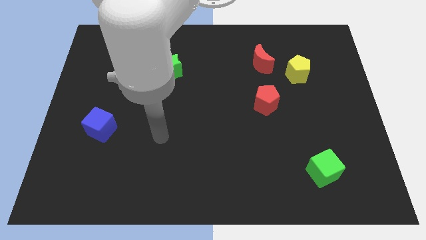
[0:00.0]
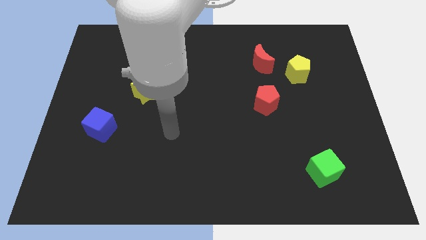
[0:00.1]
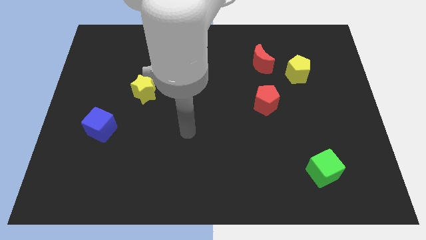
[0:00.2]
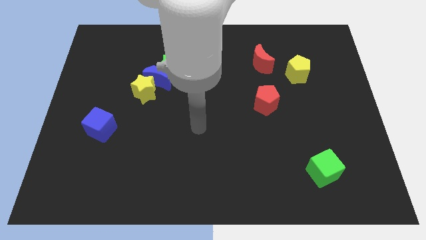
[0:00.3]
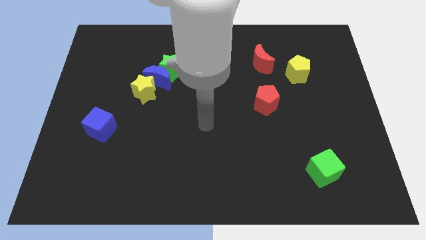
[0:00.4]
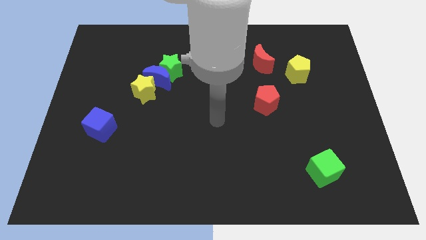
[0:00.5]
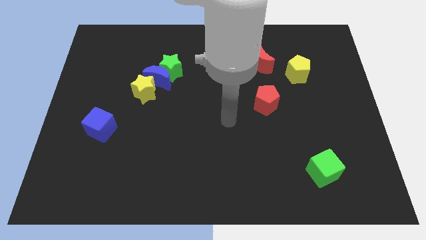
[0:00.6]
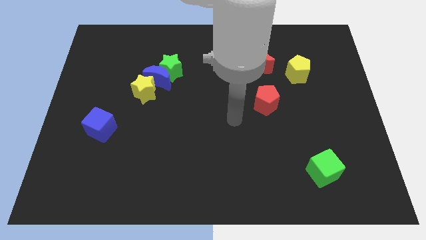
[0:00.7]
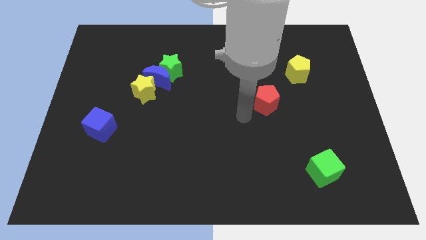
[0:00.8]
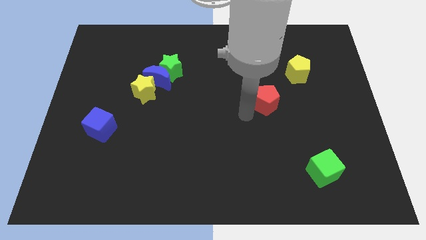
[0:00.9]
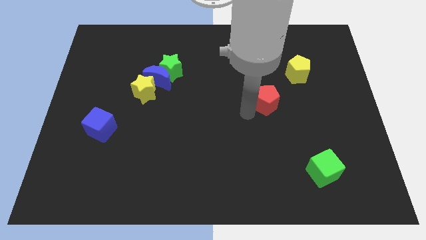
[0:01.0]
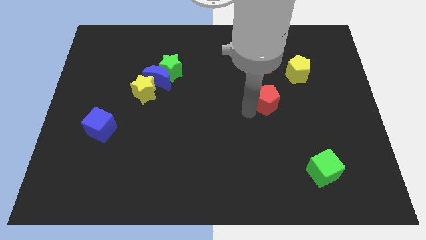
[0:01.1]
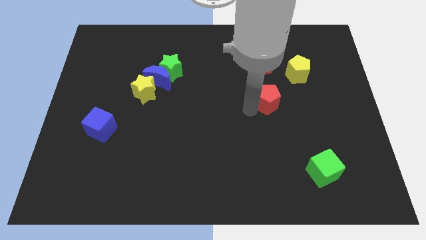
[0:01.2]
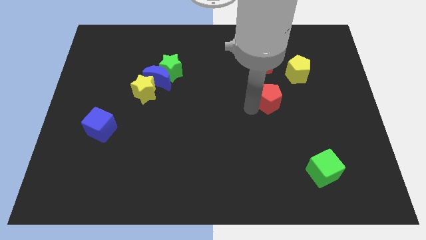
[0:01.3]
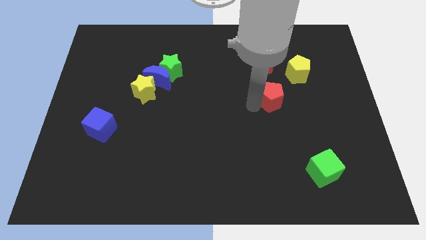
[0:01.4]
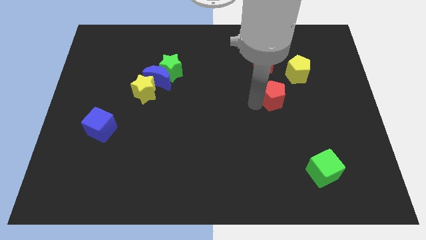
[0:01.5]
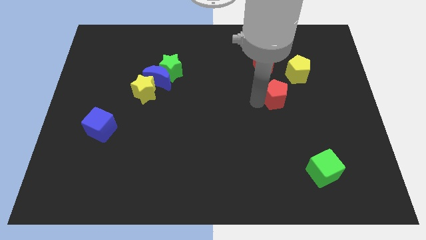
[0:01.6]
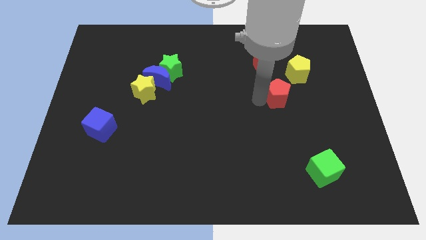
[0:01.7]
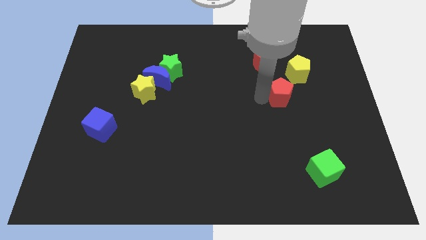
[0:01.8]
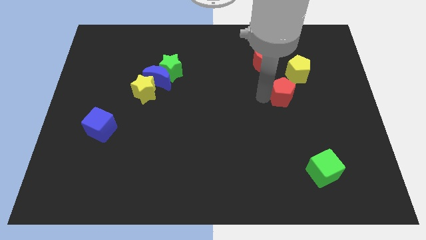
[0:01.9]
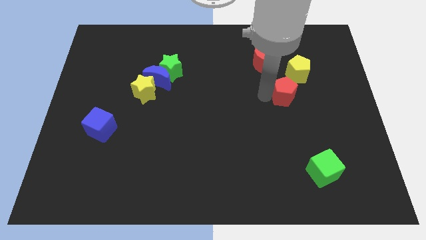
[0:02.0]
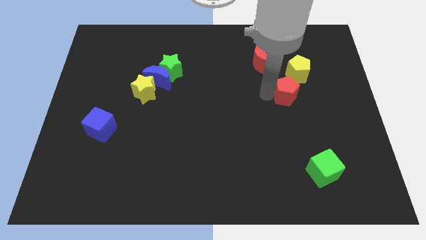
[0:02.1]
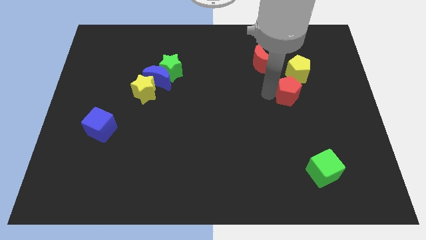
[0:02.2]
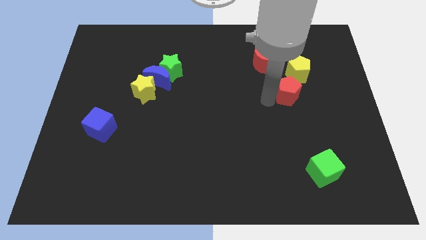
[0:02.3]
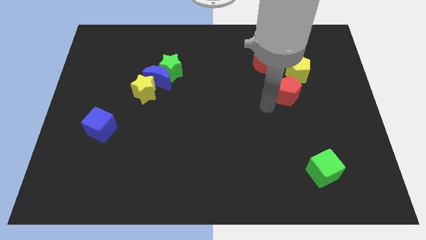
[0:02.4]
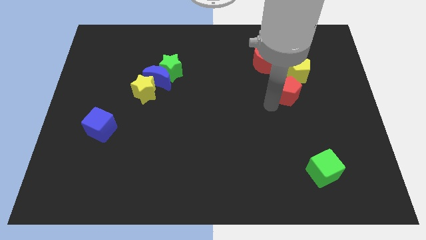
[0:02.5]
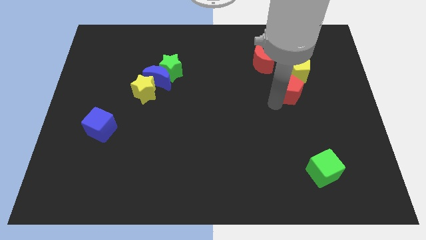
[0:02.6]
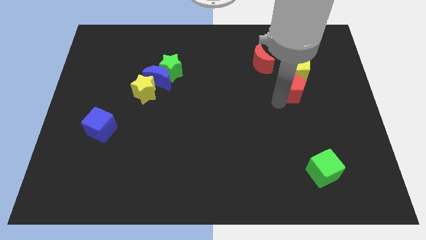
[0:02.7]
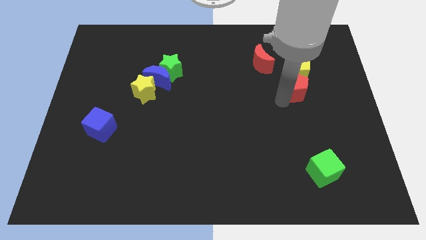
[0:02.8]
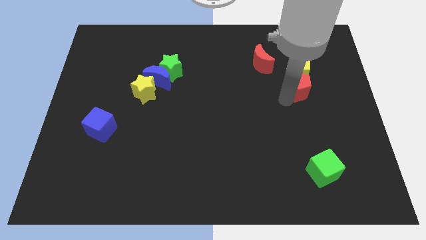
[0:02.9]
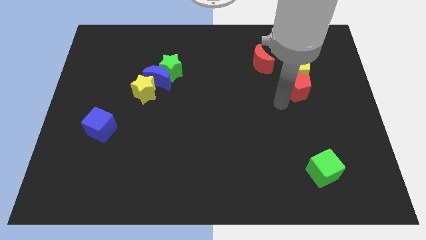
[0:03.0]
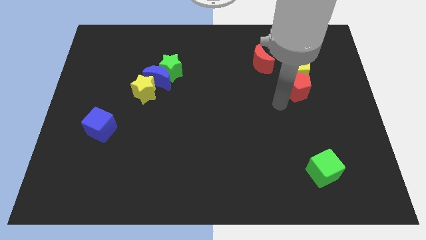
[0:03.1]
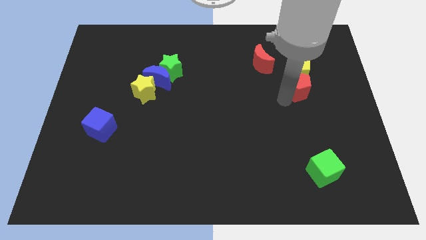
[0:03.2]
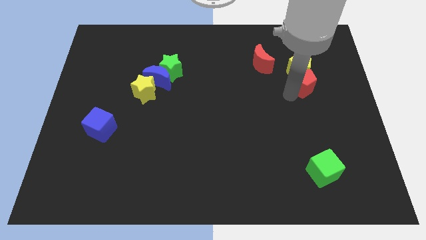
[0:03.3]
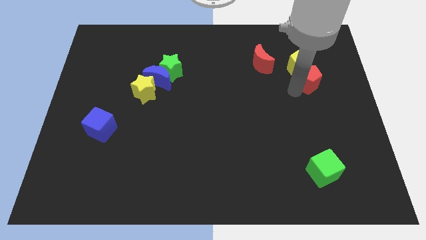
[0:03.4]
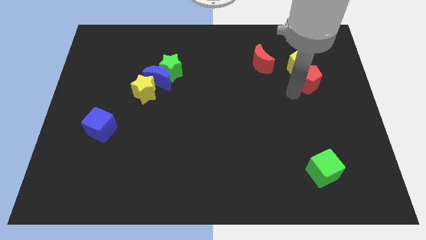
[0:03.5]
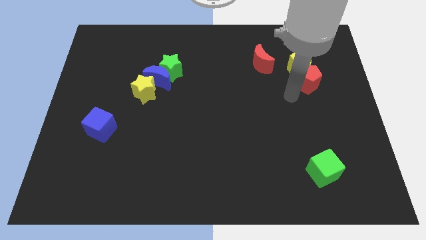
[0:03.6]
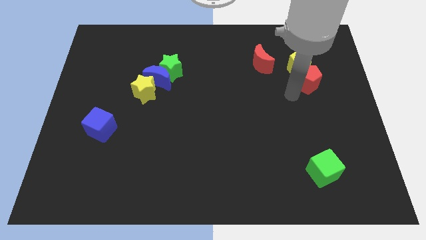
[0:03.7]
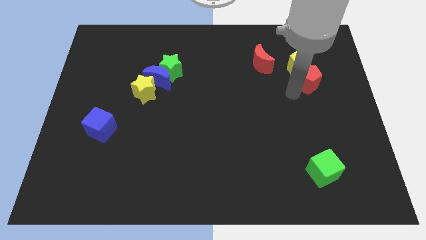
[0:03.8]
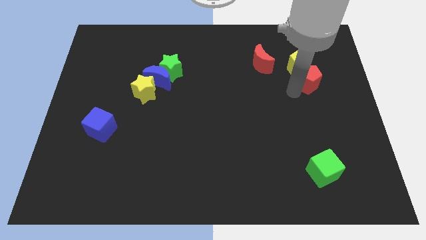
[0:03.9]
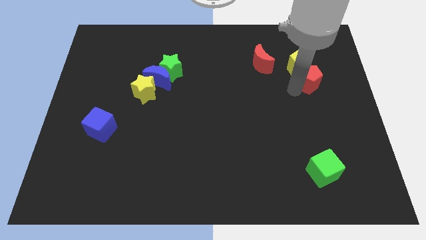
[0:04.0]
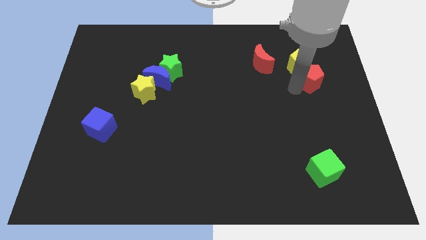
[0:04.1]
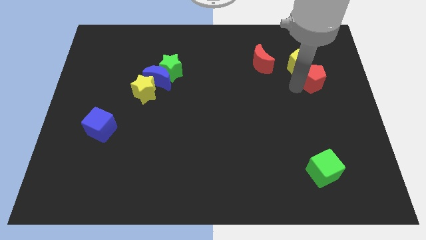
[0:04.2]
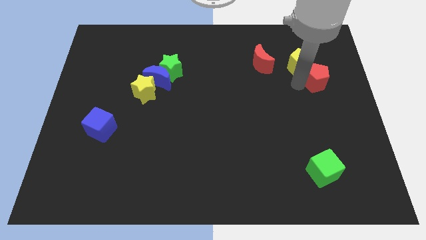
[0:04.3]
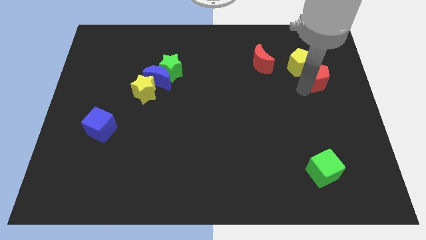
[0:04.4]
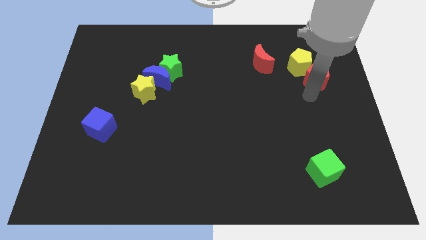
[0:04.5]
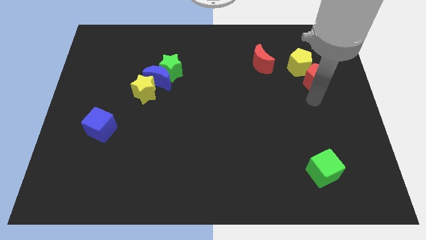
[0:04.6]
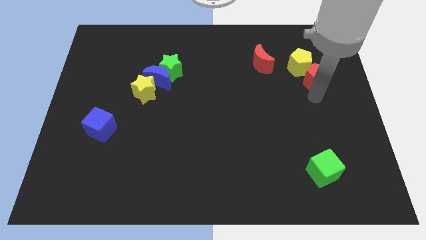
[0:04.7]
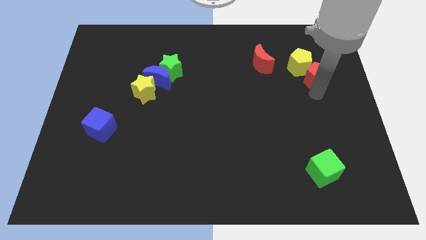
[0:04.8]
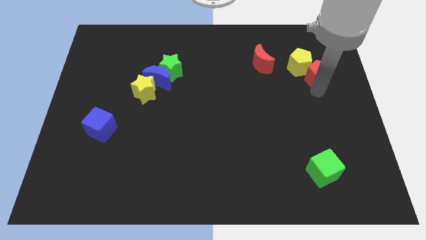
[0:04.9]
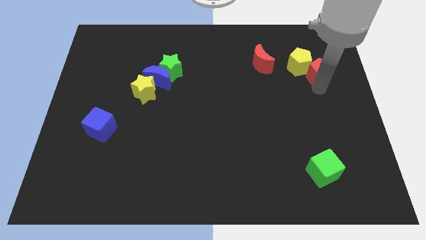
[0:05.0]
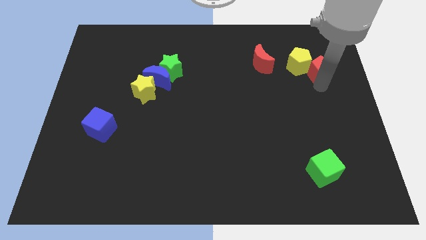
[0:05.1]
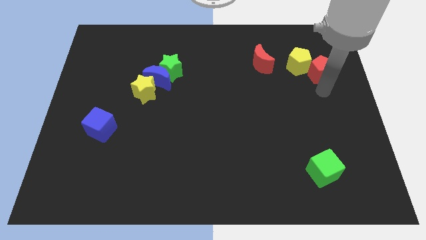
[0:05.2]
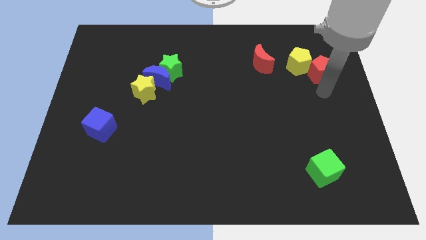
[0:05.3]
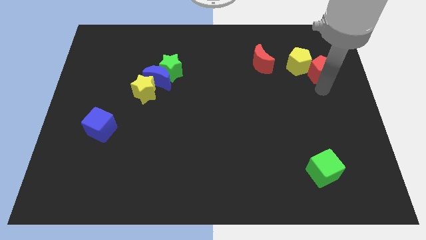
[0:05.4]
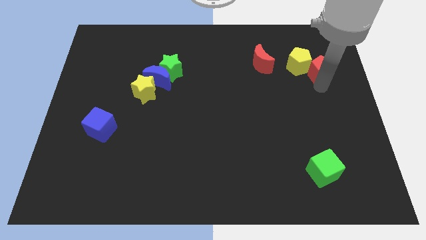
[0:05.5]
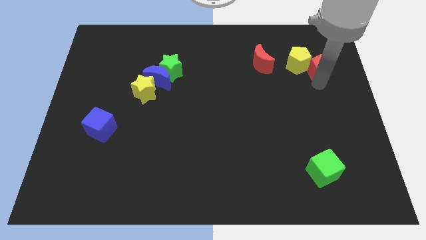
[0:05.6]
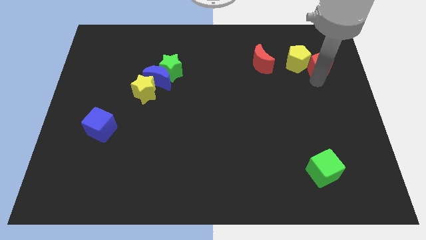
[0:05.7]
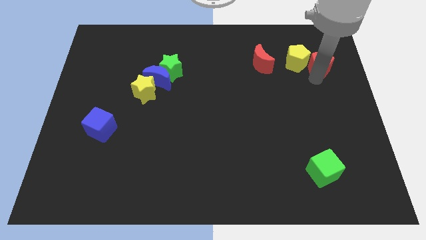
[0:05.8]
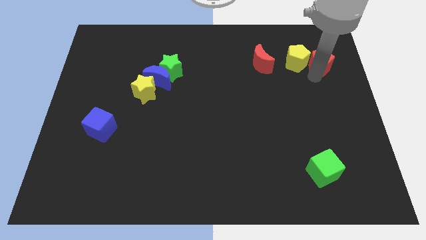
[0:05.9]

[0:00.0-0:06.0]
slide the red pentagon to the top right side of the yellow pentagon

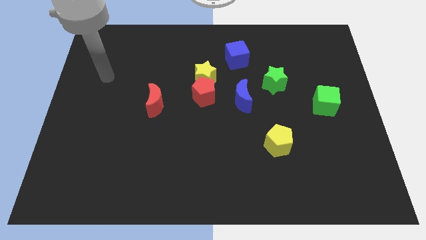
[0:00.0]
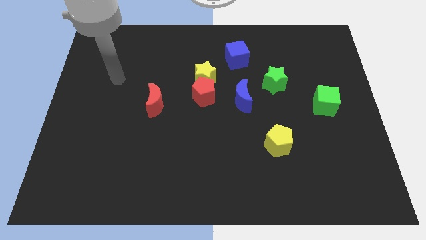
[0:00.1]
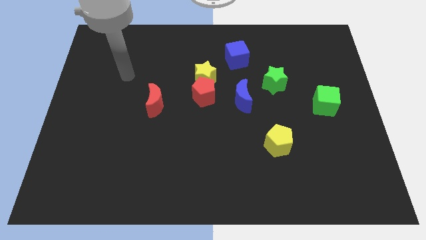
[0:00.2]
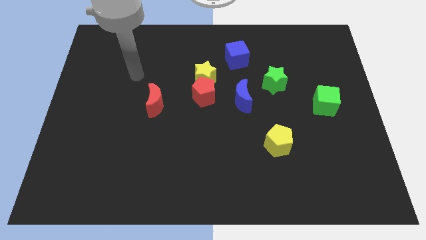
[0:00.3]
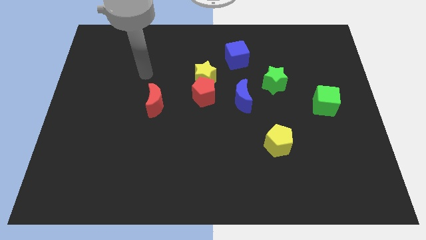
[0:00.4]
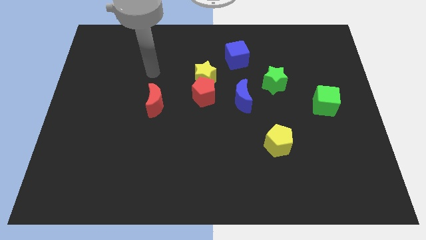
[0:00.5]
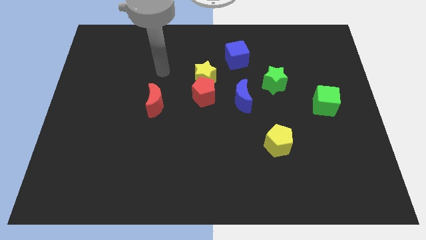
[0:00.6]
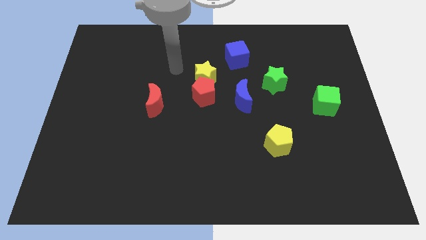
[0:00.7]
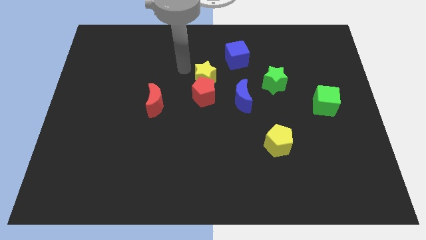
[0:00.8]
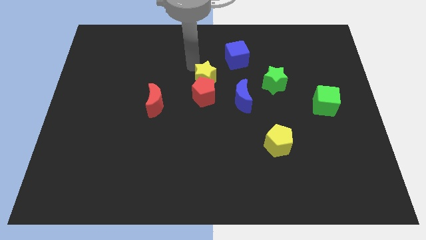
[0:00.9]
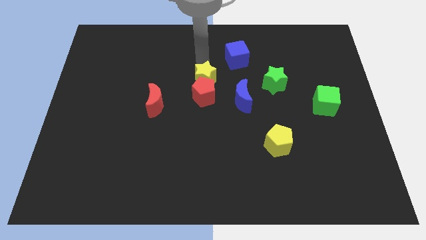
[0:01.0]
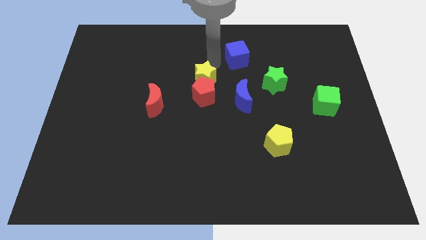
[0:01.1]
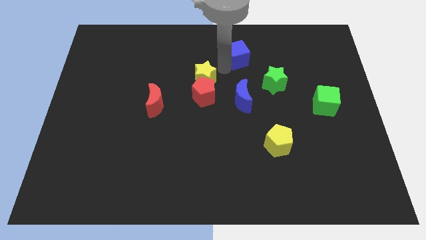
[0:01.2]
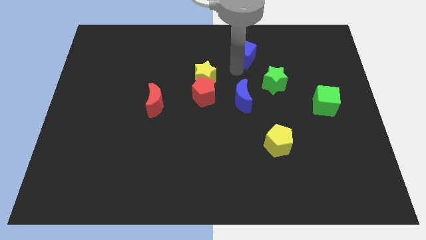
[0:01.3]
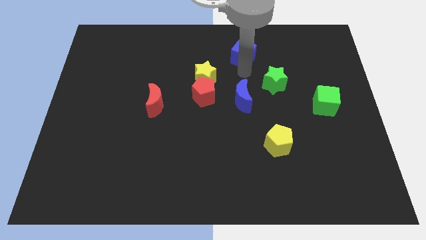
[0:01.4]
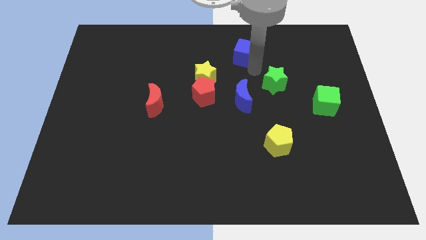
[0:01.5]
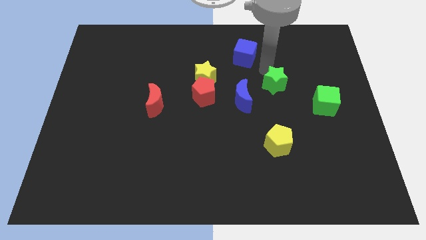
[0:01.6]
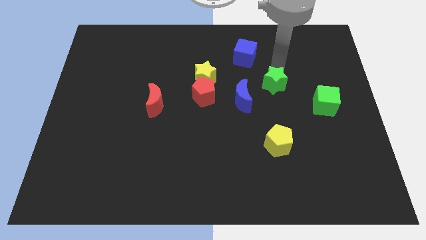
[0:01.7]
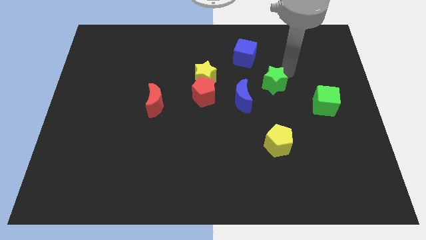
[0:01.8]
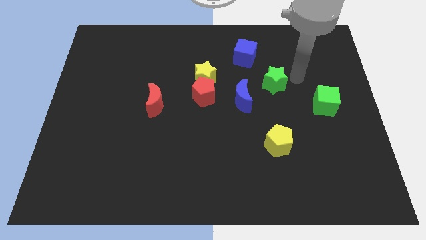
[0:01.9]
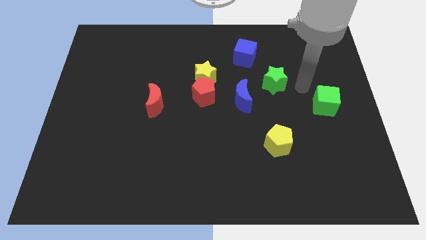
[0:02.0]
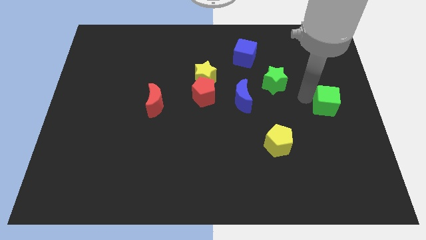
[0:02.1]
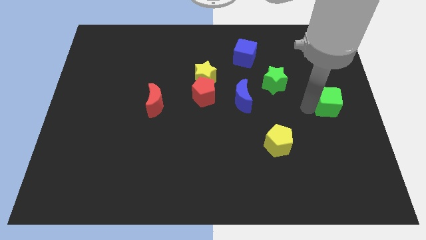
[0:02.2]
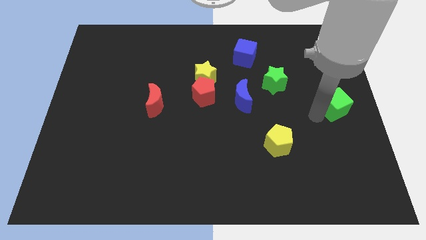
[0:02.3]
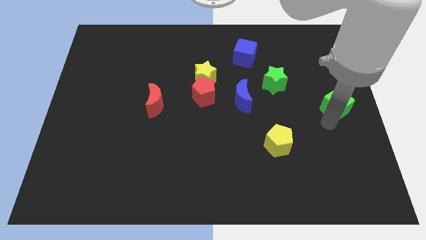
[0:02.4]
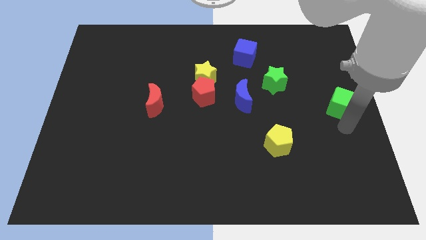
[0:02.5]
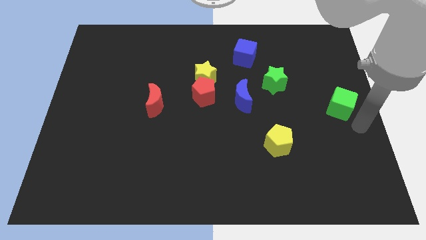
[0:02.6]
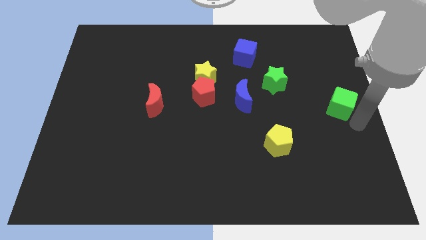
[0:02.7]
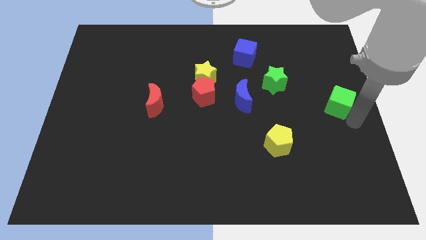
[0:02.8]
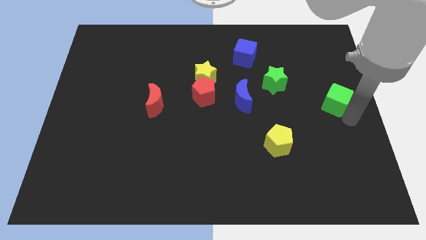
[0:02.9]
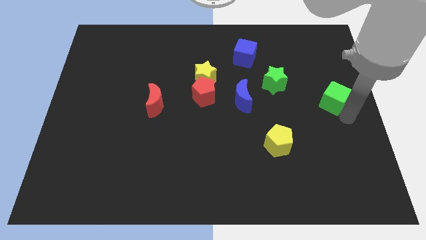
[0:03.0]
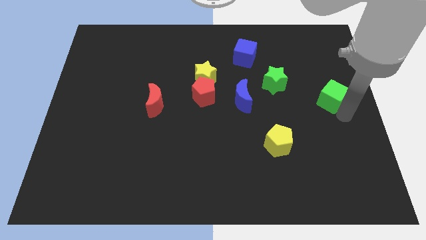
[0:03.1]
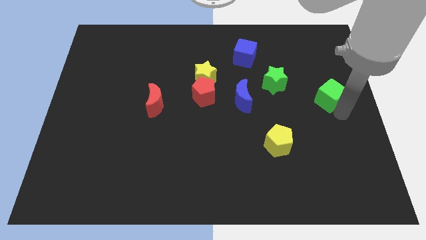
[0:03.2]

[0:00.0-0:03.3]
push the green cube just right of the green star
